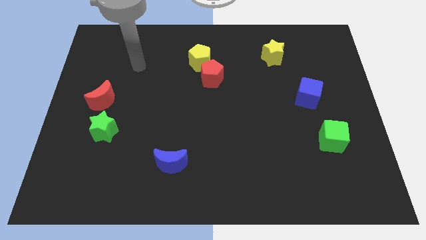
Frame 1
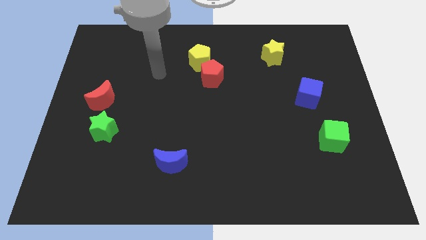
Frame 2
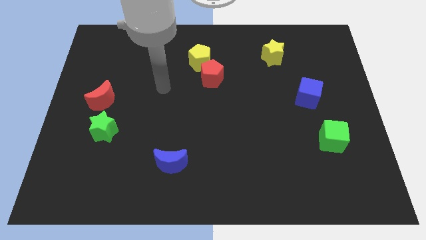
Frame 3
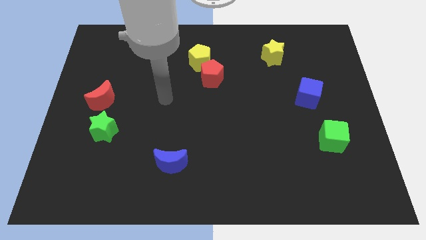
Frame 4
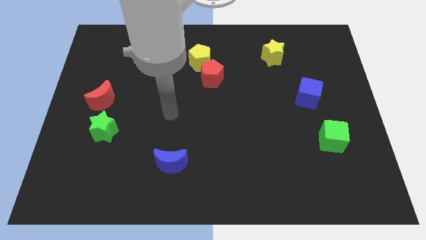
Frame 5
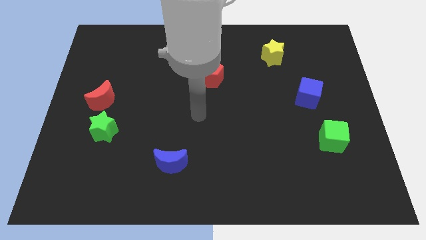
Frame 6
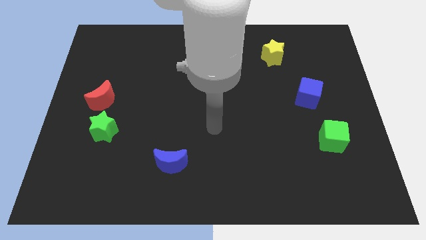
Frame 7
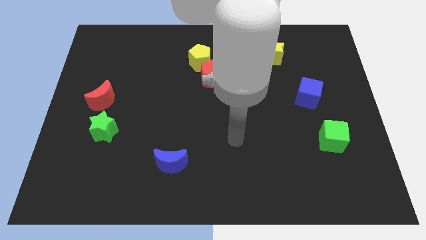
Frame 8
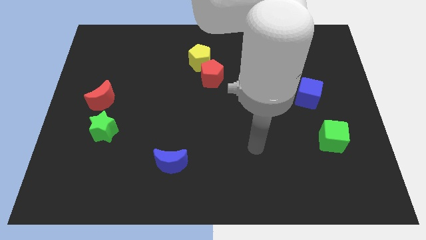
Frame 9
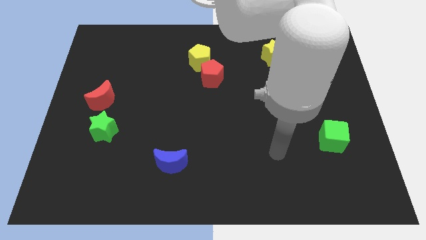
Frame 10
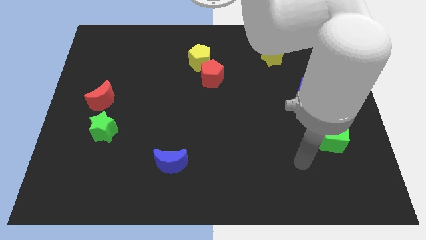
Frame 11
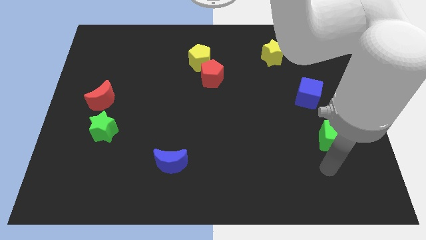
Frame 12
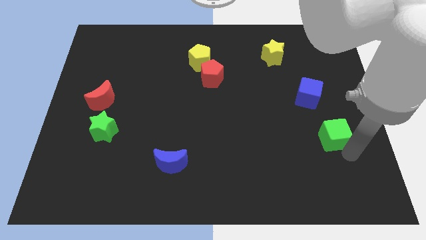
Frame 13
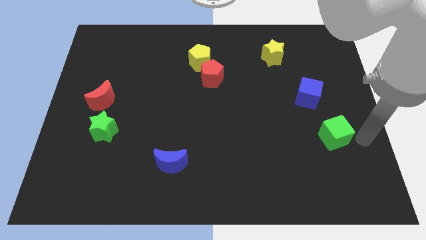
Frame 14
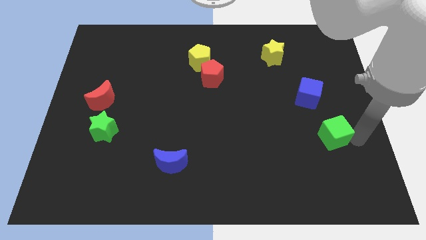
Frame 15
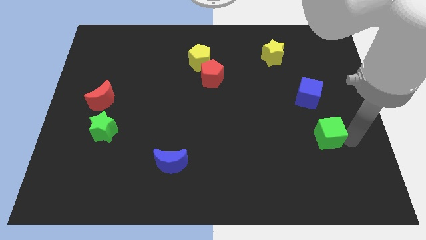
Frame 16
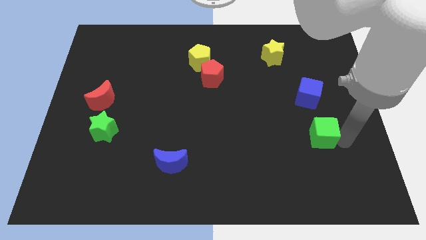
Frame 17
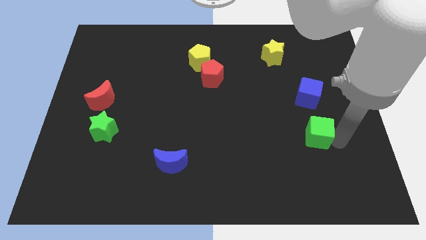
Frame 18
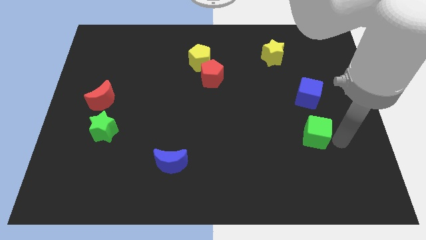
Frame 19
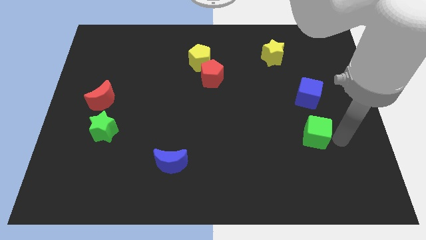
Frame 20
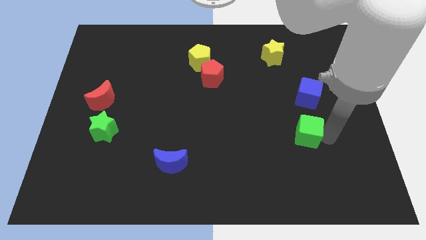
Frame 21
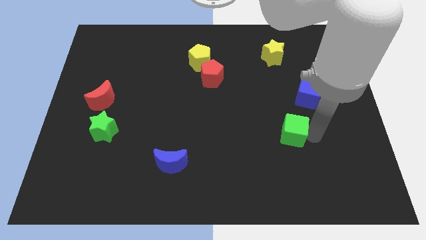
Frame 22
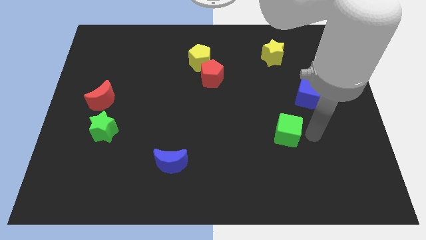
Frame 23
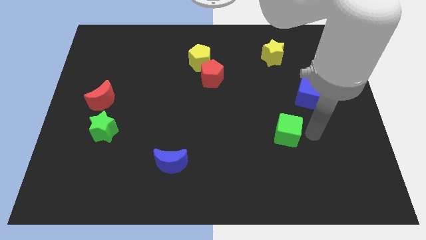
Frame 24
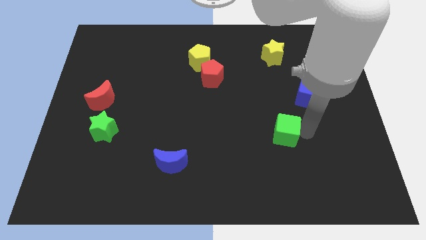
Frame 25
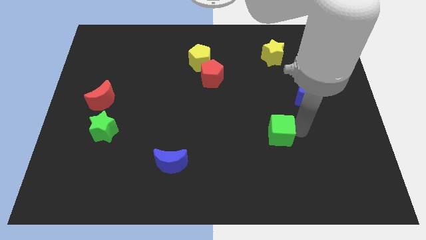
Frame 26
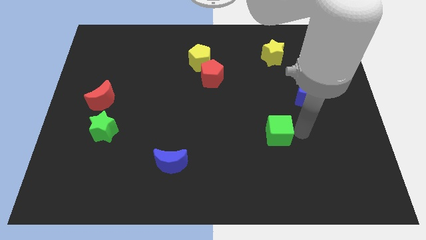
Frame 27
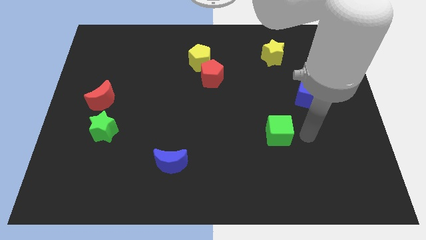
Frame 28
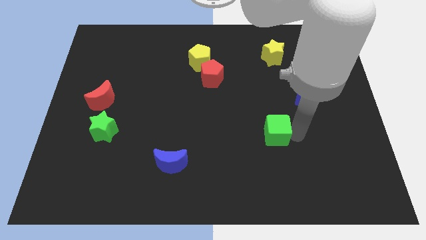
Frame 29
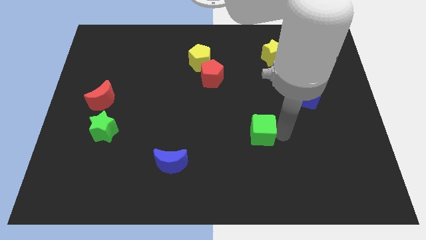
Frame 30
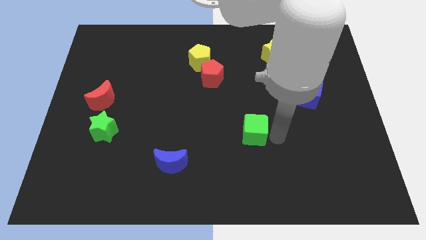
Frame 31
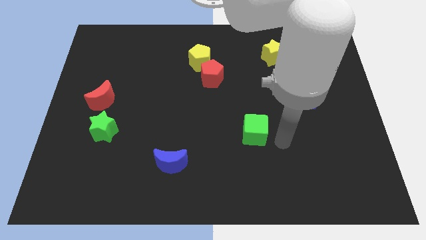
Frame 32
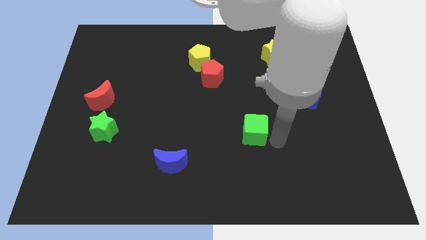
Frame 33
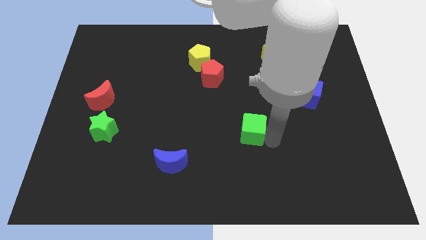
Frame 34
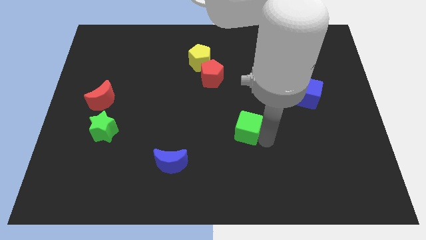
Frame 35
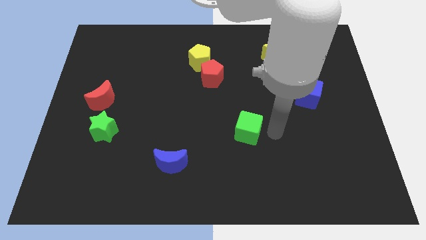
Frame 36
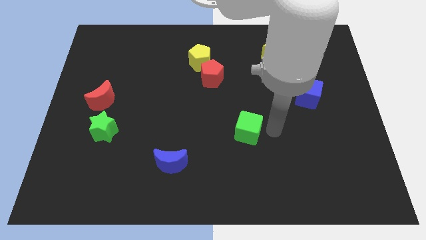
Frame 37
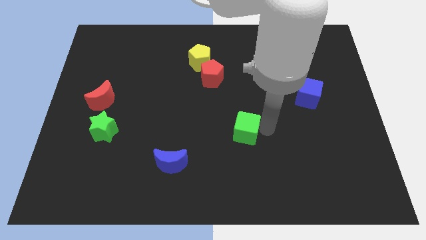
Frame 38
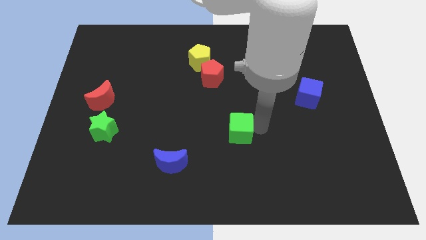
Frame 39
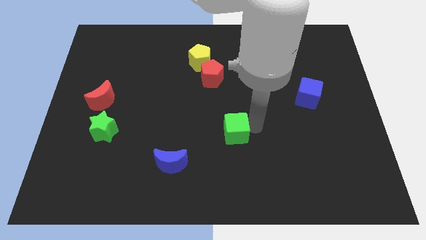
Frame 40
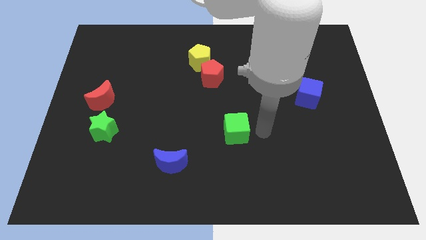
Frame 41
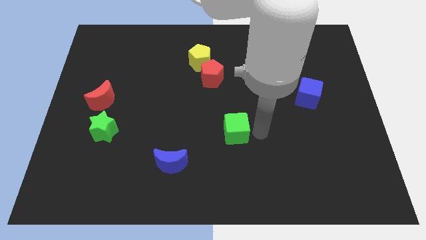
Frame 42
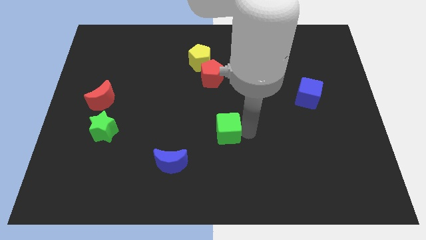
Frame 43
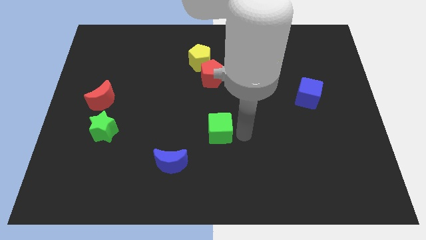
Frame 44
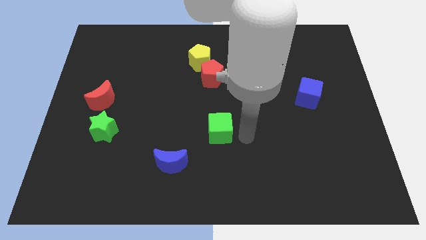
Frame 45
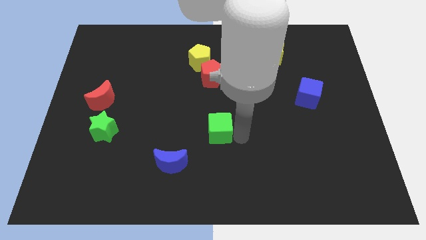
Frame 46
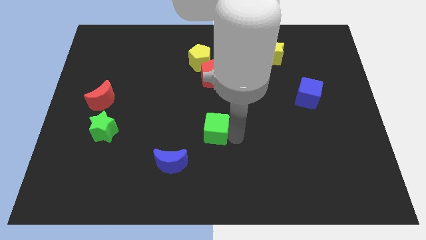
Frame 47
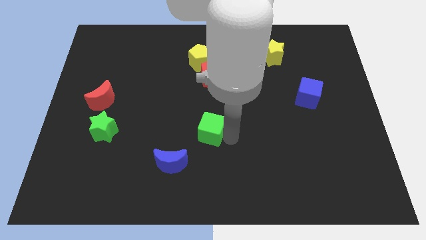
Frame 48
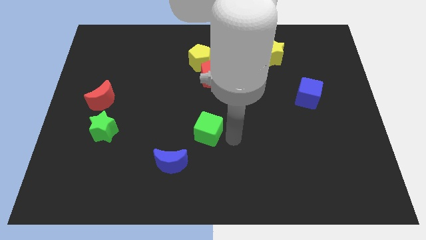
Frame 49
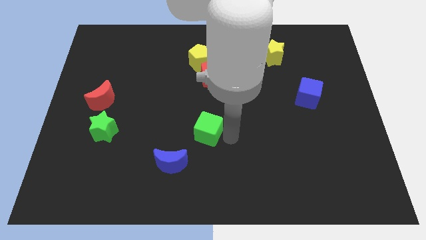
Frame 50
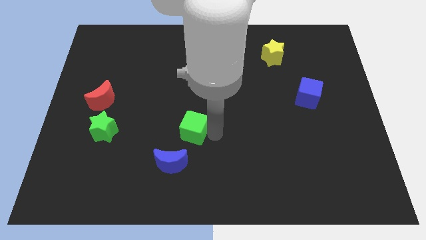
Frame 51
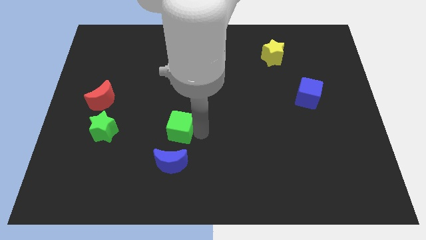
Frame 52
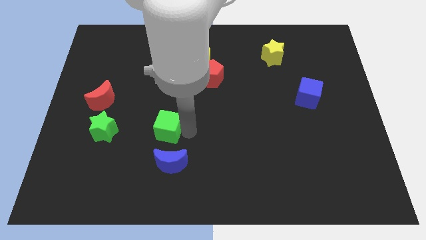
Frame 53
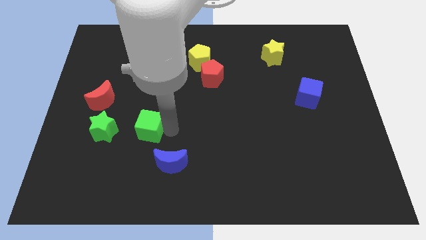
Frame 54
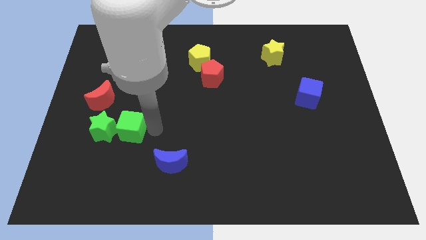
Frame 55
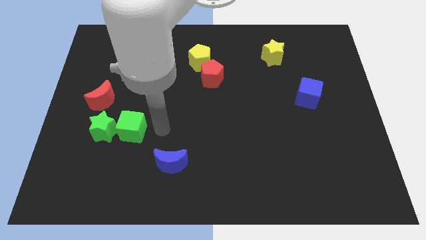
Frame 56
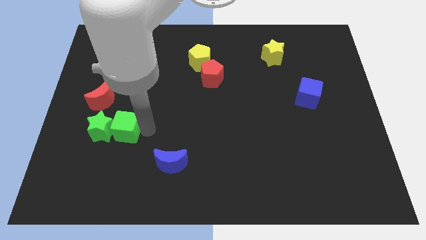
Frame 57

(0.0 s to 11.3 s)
put the green cube to the green star
